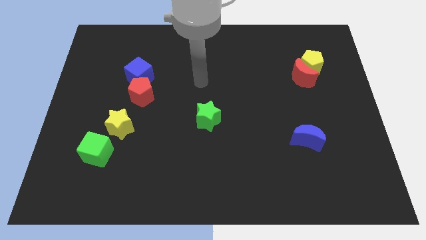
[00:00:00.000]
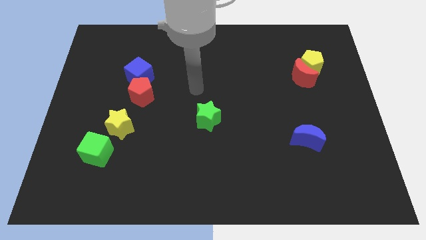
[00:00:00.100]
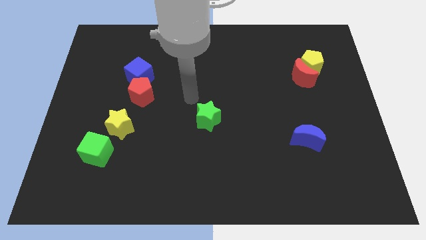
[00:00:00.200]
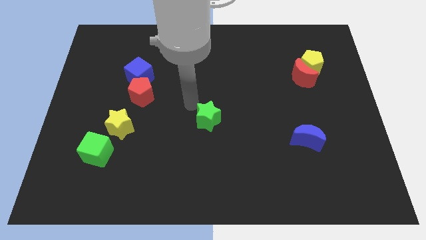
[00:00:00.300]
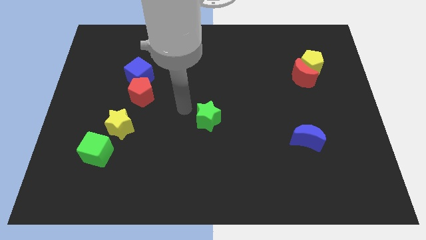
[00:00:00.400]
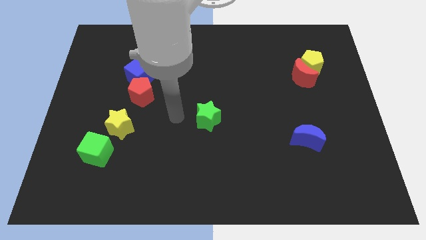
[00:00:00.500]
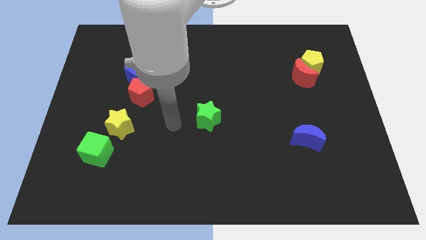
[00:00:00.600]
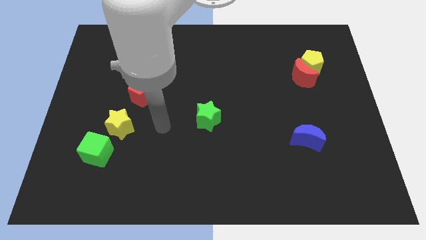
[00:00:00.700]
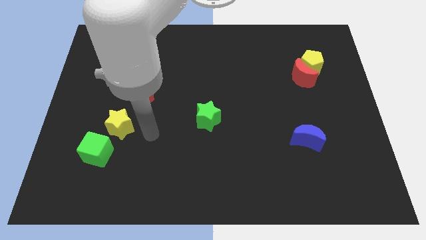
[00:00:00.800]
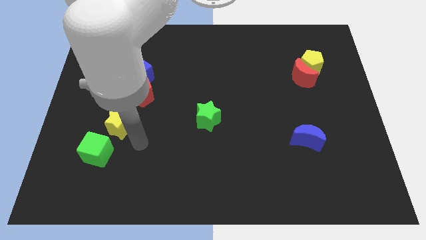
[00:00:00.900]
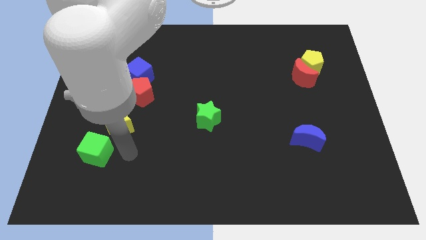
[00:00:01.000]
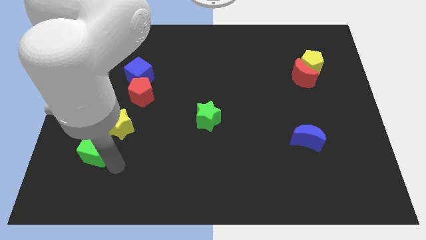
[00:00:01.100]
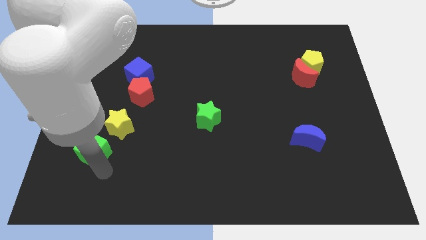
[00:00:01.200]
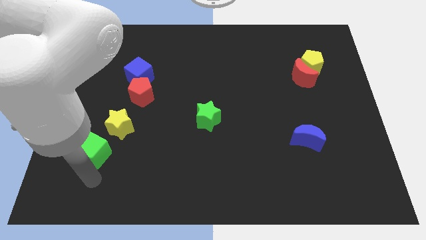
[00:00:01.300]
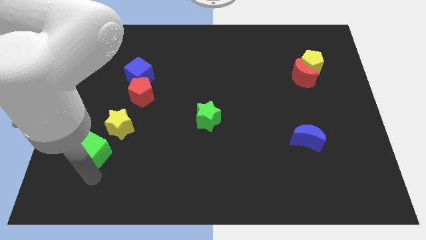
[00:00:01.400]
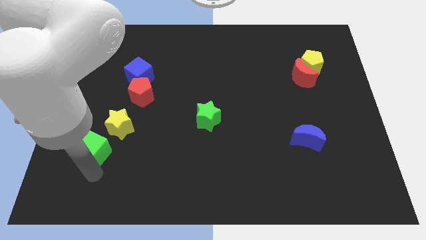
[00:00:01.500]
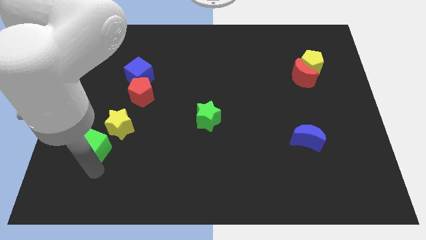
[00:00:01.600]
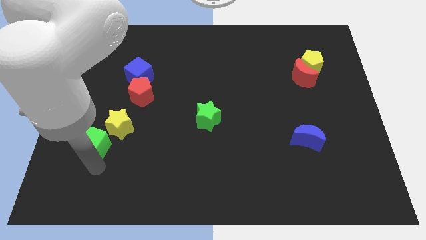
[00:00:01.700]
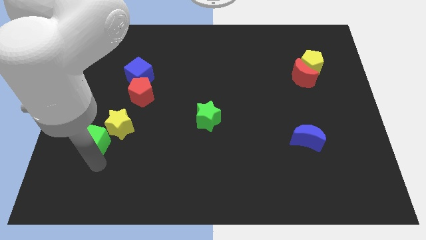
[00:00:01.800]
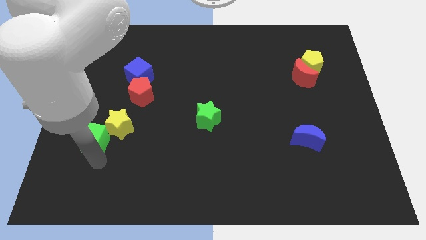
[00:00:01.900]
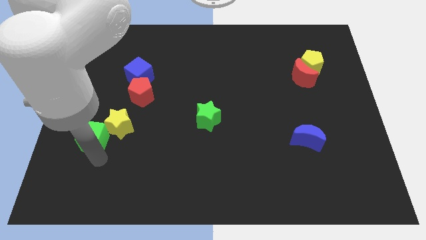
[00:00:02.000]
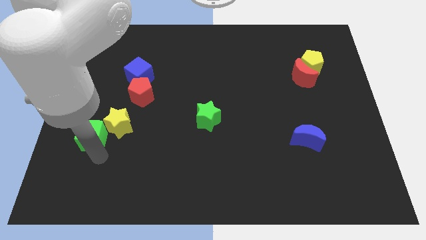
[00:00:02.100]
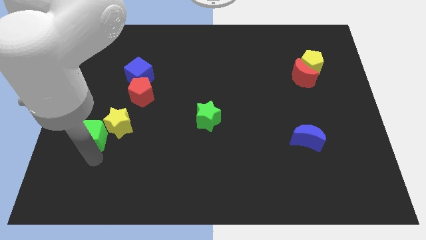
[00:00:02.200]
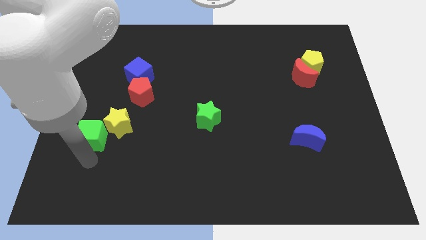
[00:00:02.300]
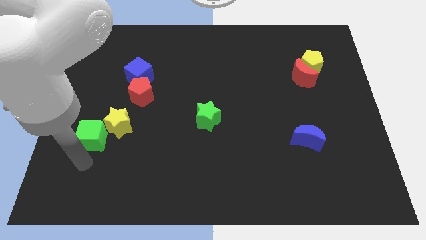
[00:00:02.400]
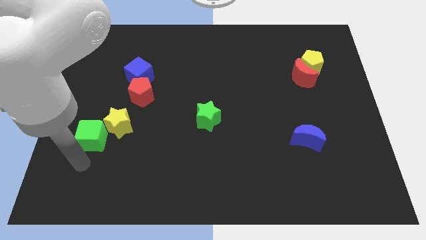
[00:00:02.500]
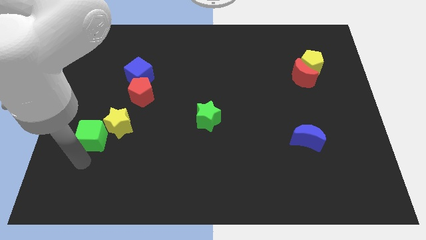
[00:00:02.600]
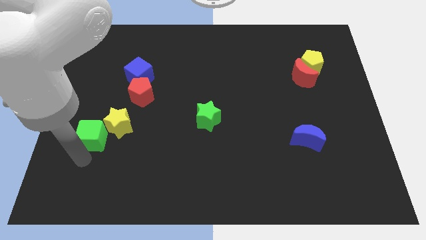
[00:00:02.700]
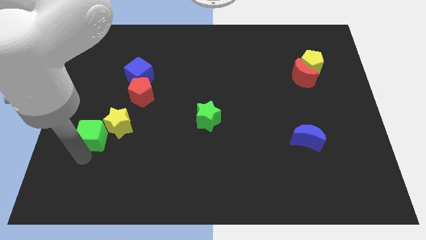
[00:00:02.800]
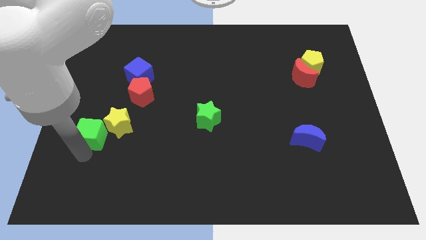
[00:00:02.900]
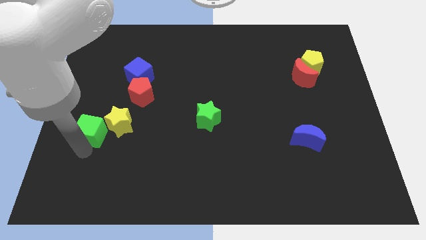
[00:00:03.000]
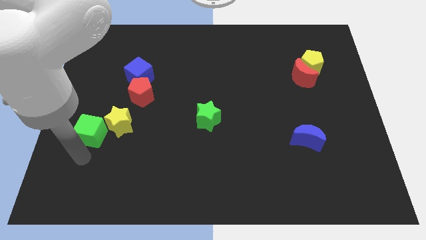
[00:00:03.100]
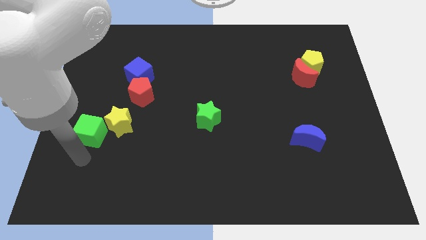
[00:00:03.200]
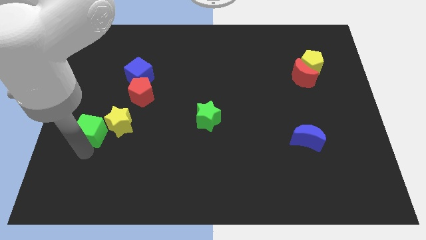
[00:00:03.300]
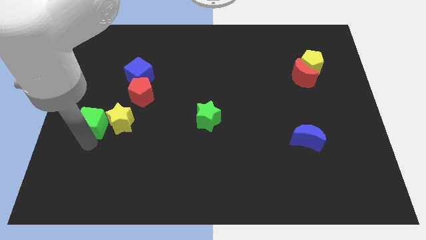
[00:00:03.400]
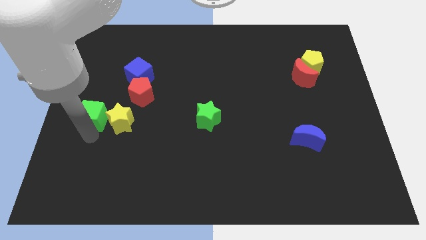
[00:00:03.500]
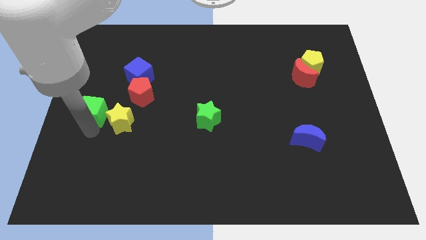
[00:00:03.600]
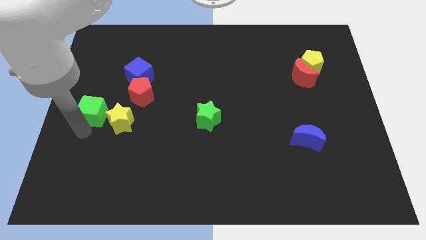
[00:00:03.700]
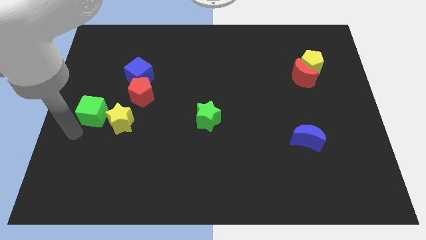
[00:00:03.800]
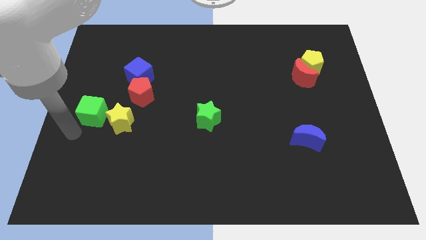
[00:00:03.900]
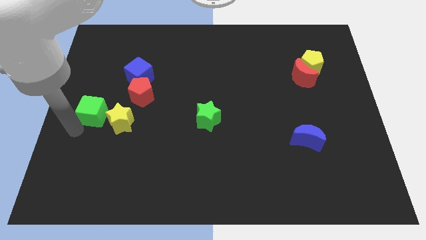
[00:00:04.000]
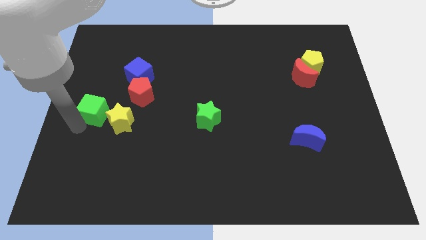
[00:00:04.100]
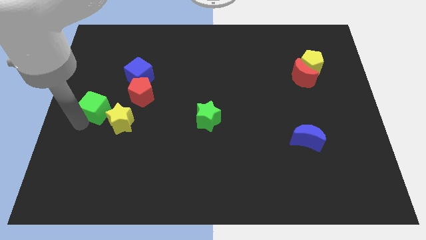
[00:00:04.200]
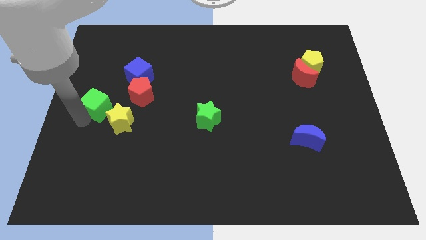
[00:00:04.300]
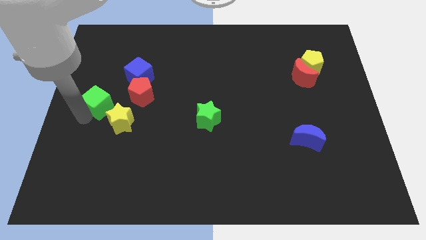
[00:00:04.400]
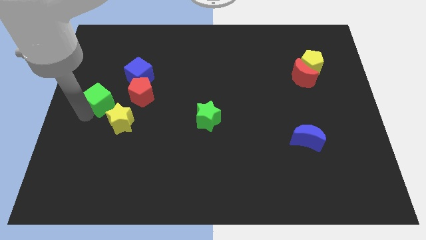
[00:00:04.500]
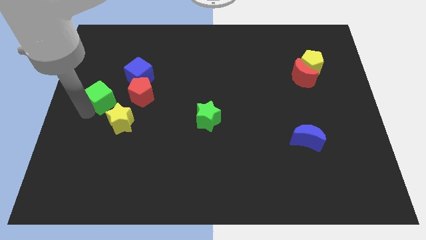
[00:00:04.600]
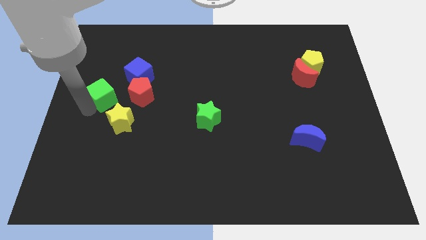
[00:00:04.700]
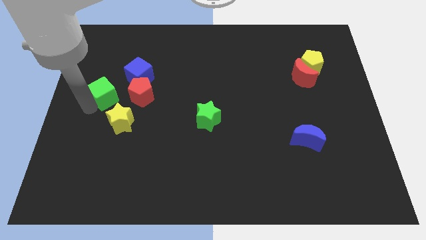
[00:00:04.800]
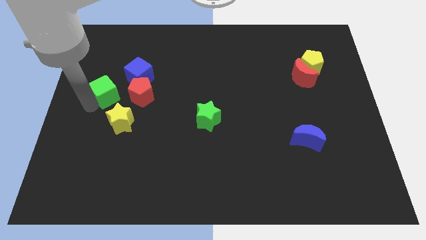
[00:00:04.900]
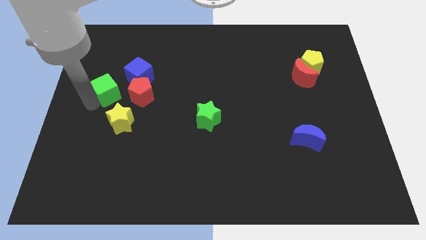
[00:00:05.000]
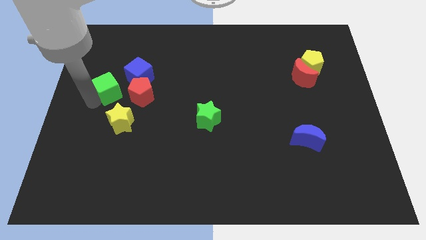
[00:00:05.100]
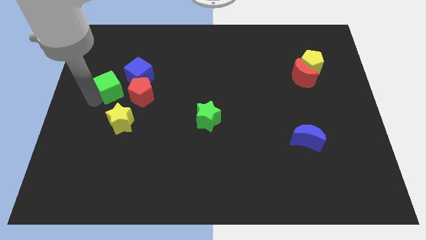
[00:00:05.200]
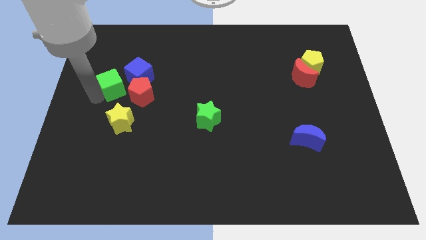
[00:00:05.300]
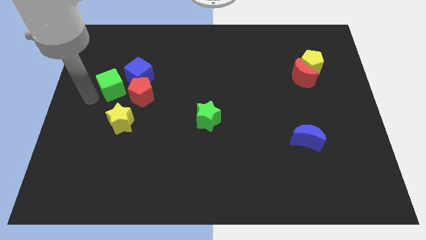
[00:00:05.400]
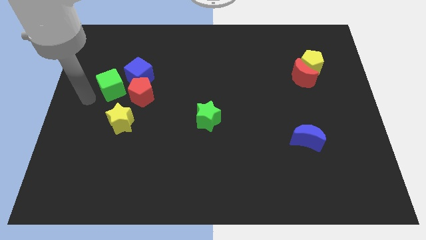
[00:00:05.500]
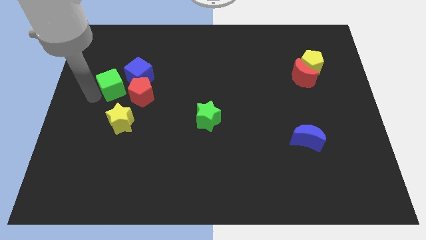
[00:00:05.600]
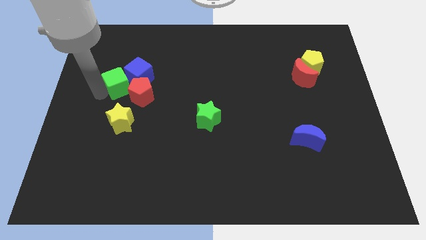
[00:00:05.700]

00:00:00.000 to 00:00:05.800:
move the green cube close to the blue cube

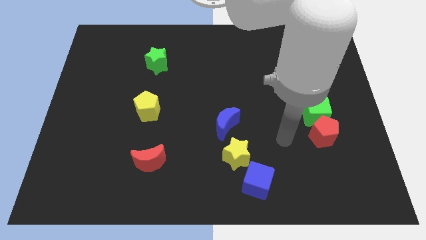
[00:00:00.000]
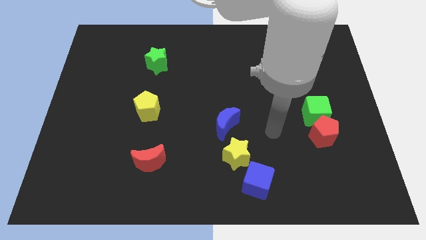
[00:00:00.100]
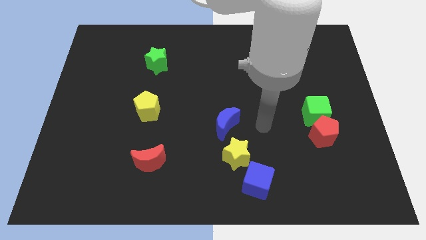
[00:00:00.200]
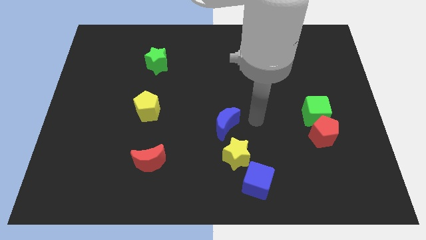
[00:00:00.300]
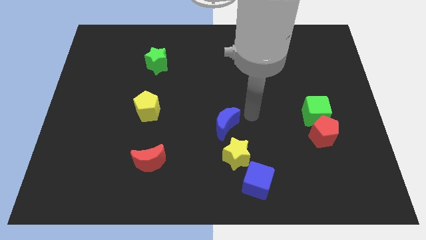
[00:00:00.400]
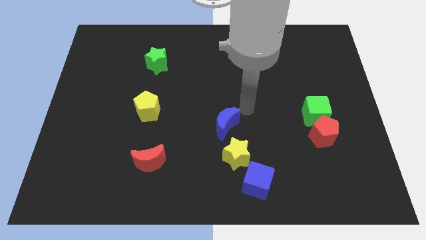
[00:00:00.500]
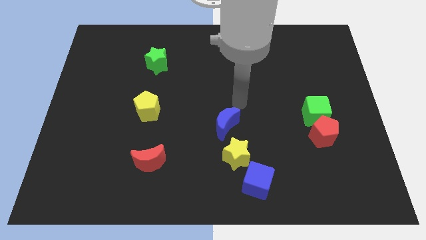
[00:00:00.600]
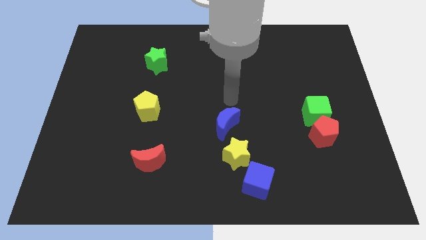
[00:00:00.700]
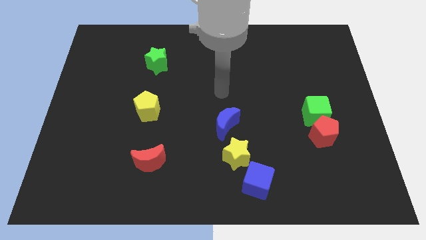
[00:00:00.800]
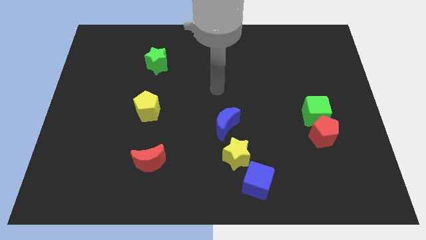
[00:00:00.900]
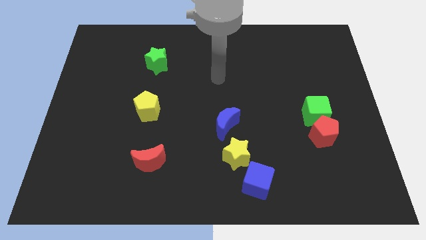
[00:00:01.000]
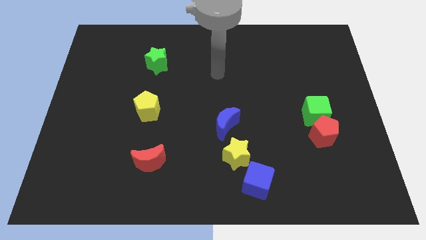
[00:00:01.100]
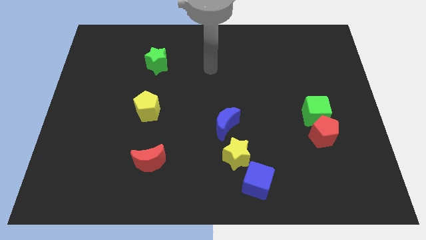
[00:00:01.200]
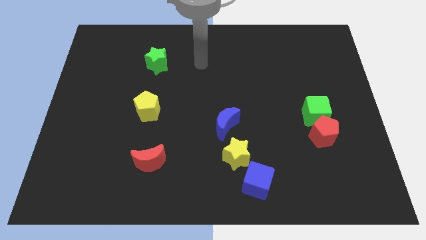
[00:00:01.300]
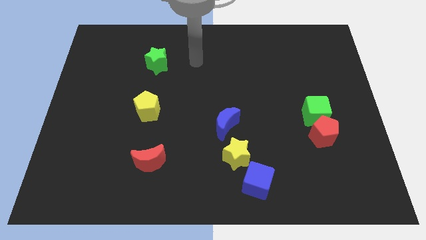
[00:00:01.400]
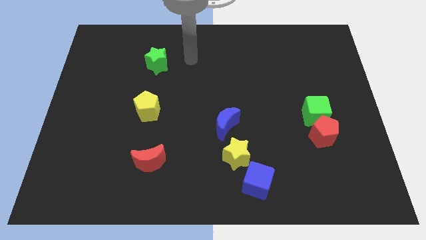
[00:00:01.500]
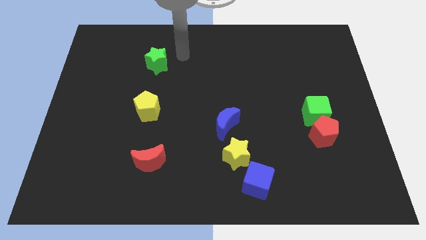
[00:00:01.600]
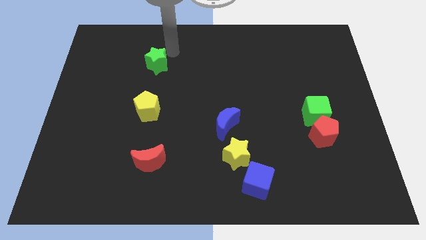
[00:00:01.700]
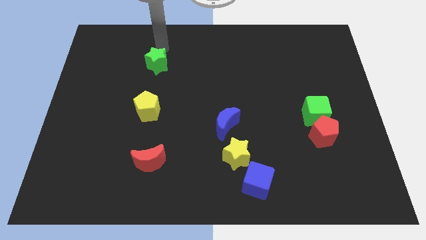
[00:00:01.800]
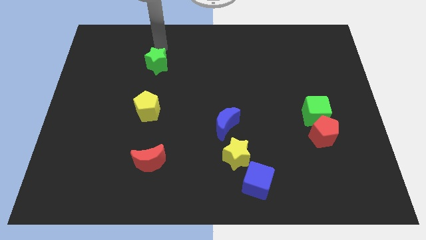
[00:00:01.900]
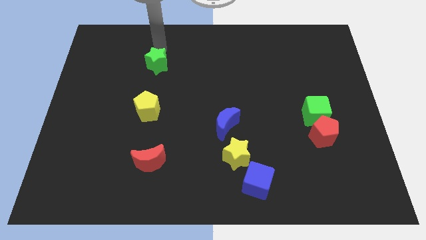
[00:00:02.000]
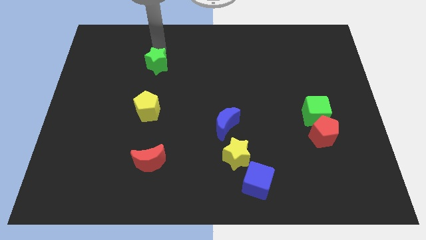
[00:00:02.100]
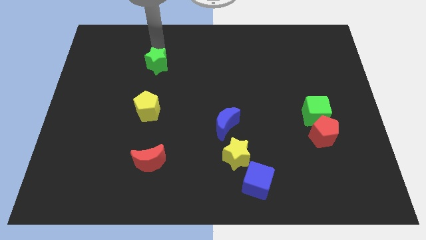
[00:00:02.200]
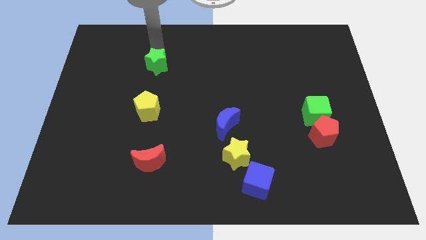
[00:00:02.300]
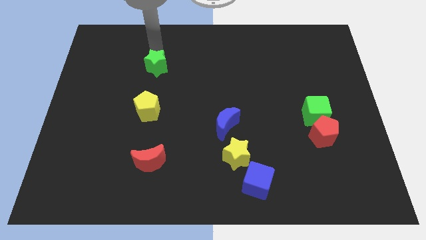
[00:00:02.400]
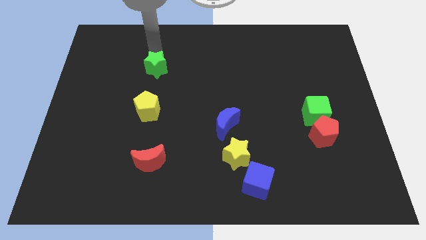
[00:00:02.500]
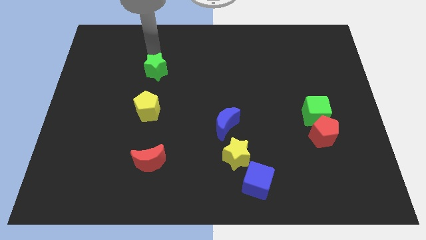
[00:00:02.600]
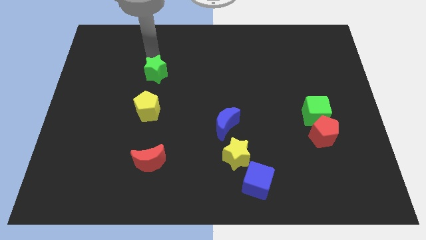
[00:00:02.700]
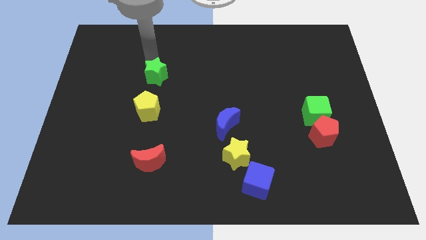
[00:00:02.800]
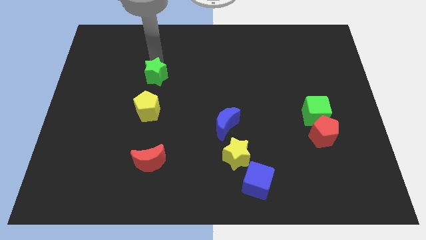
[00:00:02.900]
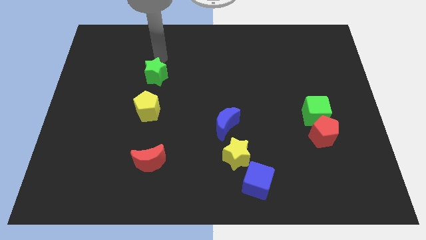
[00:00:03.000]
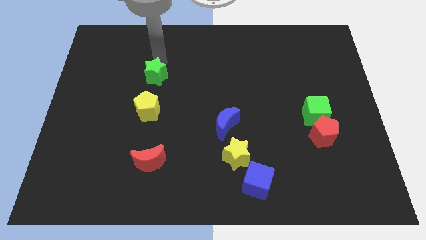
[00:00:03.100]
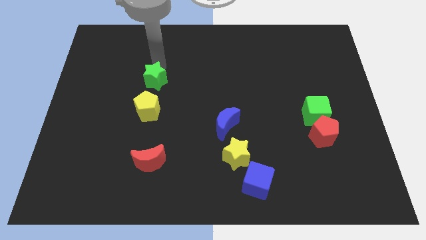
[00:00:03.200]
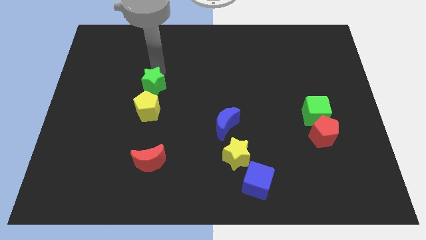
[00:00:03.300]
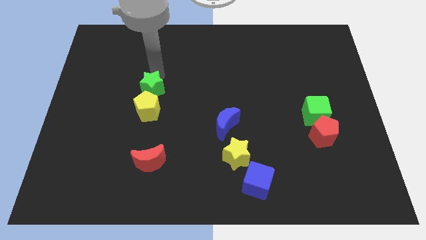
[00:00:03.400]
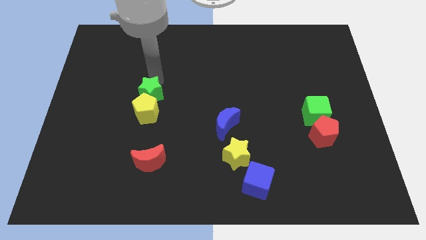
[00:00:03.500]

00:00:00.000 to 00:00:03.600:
put the green star close to the yellow pentagon
